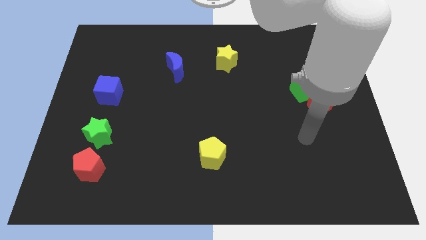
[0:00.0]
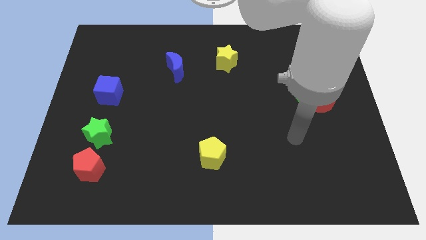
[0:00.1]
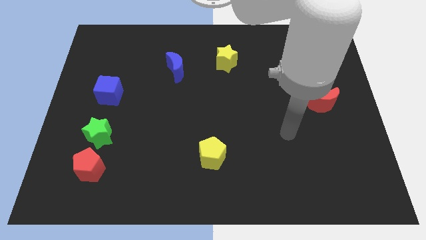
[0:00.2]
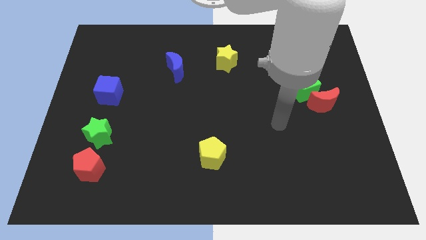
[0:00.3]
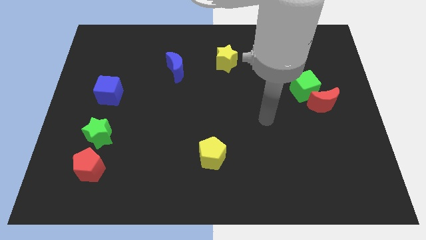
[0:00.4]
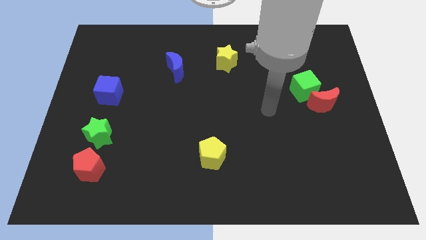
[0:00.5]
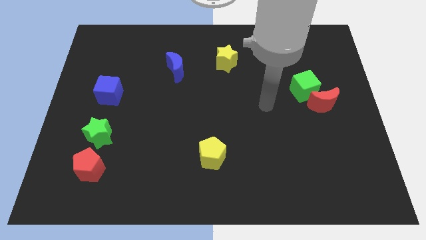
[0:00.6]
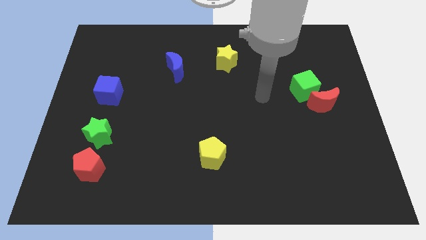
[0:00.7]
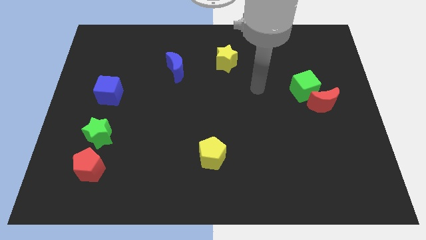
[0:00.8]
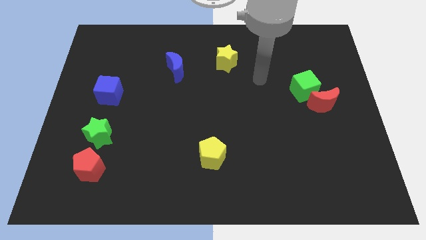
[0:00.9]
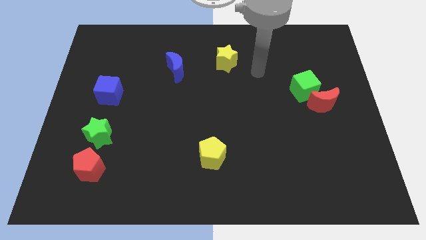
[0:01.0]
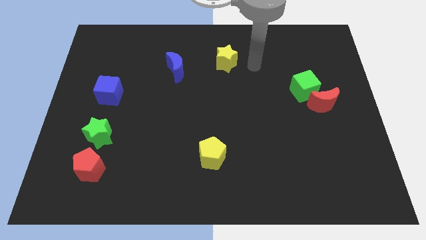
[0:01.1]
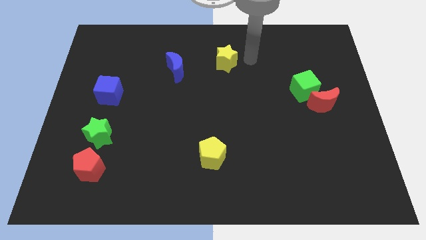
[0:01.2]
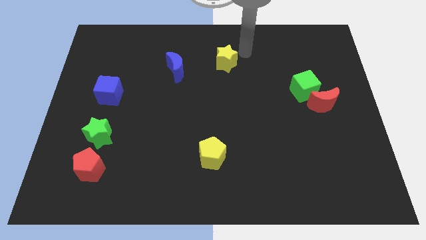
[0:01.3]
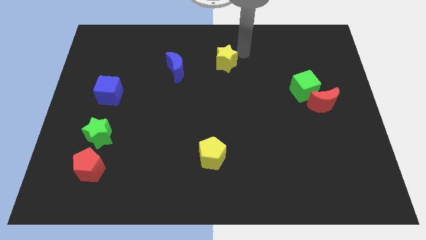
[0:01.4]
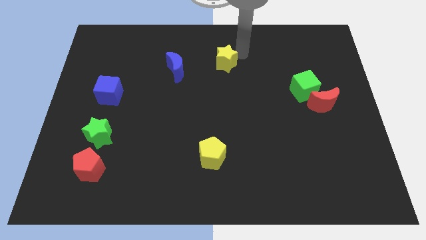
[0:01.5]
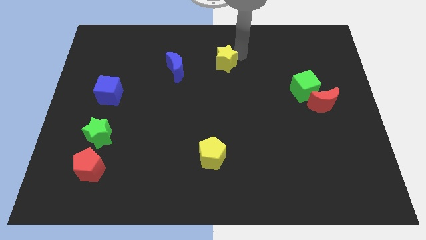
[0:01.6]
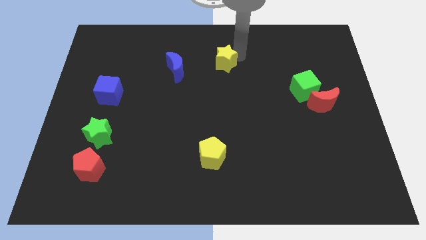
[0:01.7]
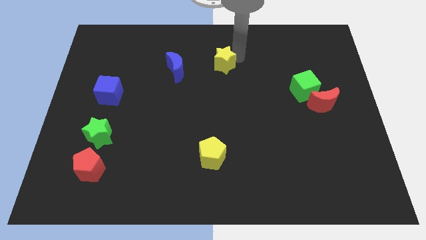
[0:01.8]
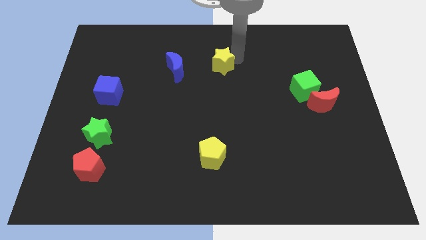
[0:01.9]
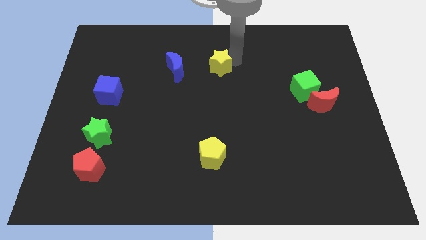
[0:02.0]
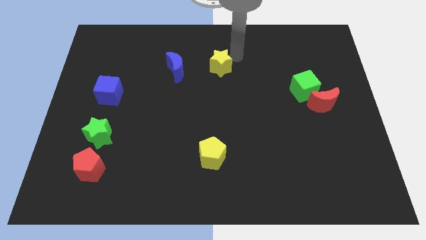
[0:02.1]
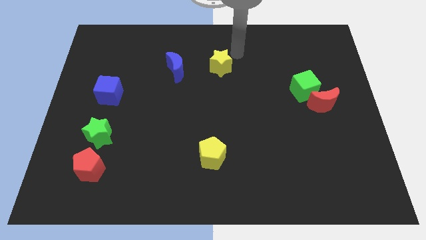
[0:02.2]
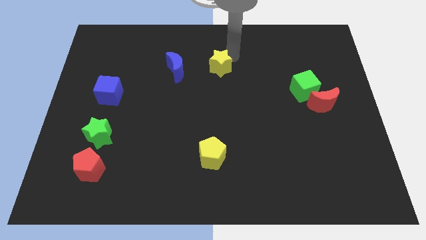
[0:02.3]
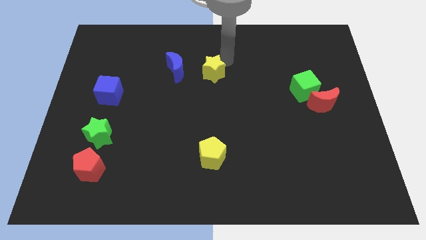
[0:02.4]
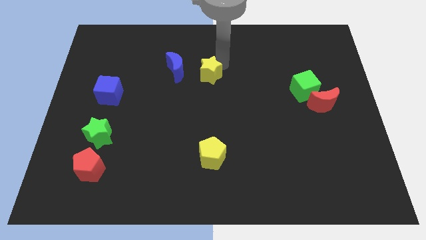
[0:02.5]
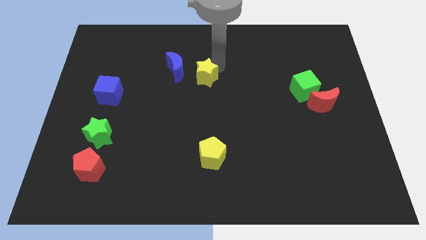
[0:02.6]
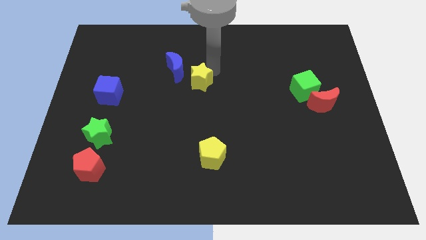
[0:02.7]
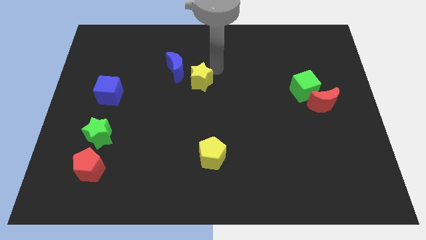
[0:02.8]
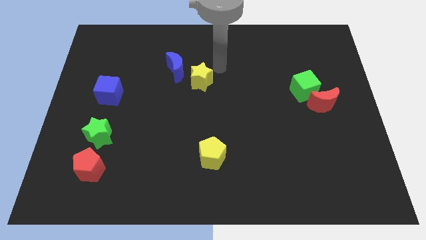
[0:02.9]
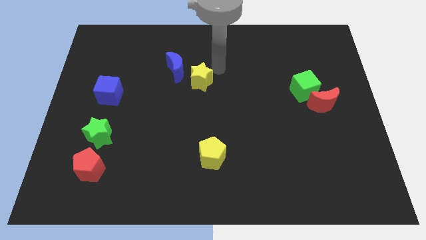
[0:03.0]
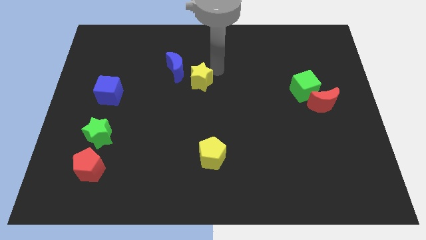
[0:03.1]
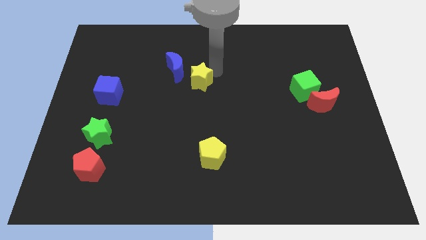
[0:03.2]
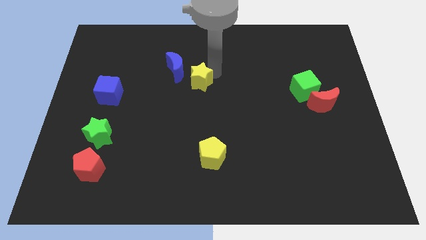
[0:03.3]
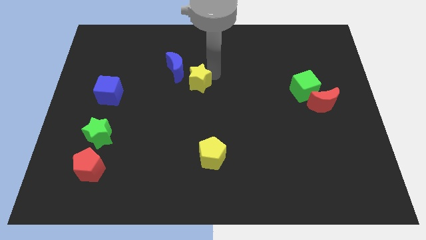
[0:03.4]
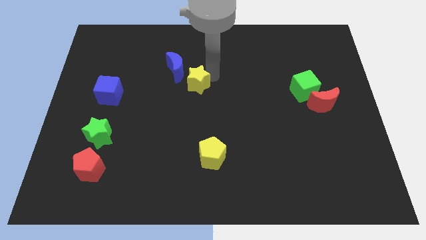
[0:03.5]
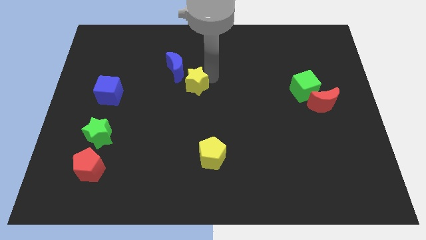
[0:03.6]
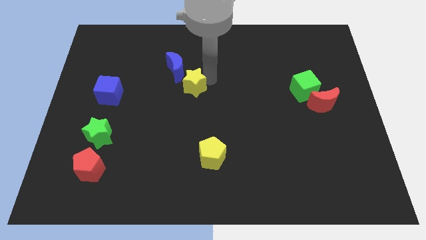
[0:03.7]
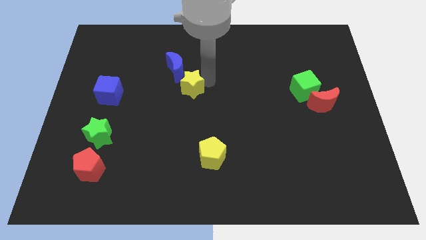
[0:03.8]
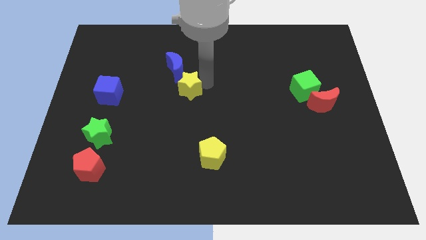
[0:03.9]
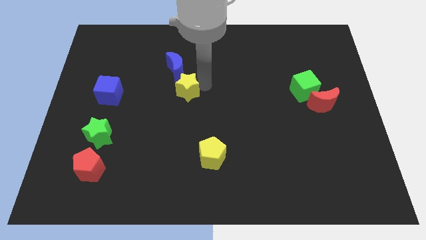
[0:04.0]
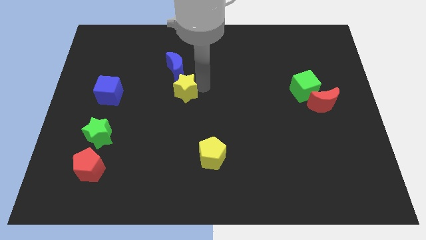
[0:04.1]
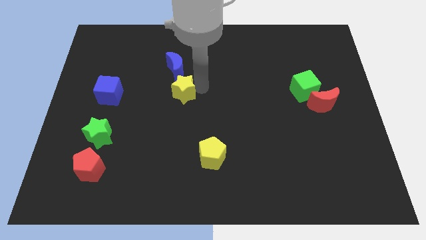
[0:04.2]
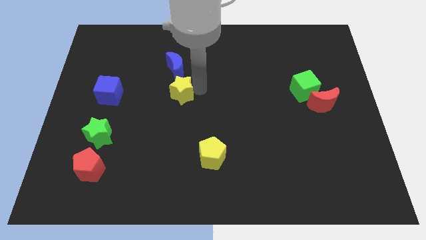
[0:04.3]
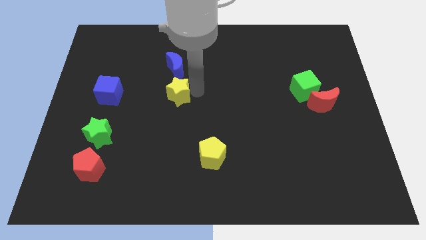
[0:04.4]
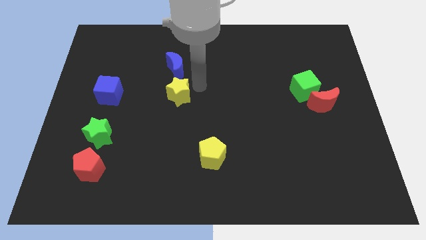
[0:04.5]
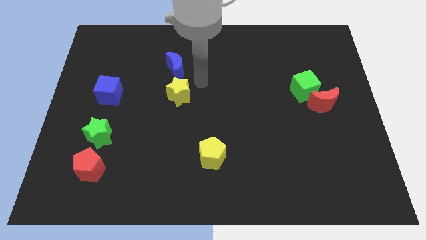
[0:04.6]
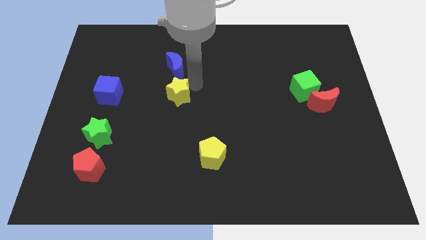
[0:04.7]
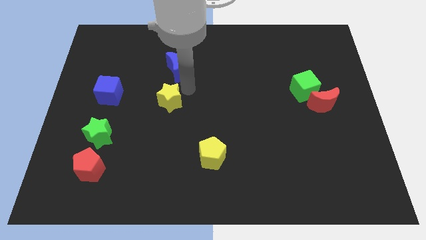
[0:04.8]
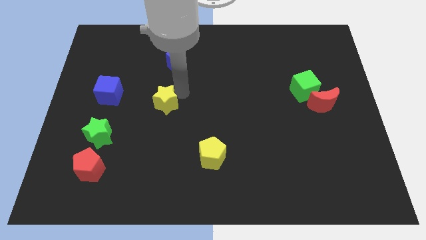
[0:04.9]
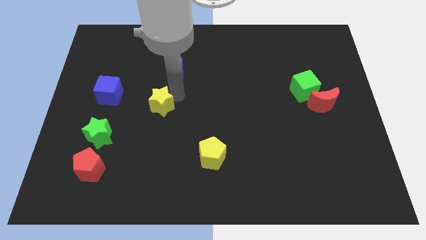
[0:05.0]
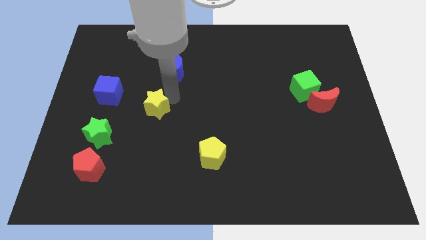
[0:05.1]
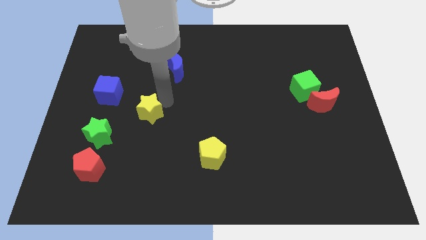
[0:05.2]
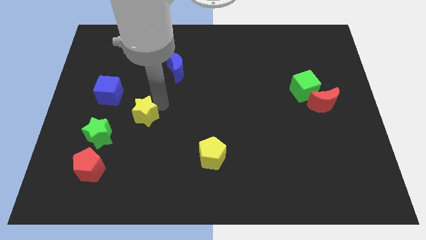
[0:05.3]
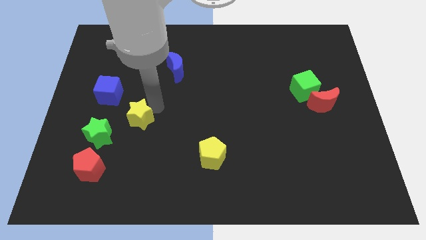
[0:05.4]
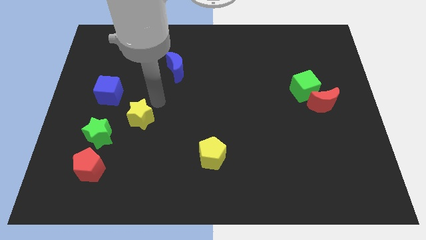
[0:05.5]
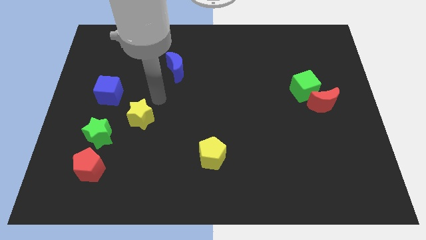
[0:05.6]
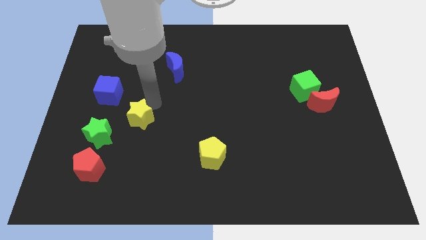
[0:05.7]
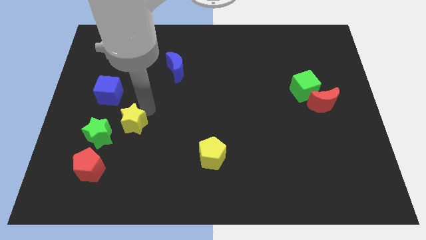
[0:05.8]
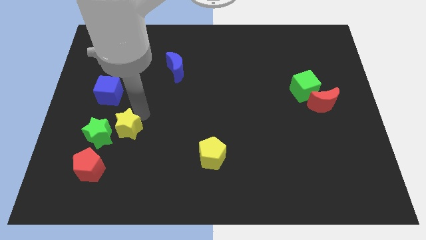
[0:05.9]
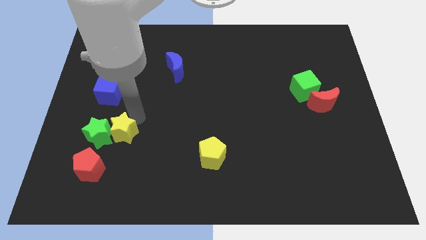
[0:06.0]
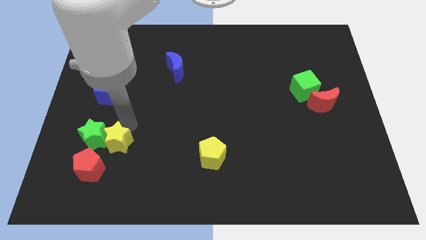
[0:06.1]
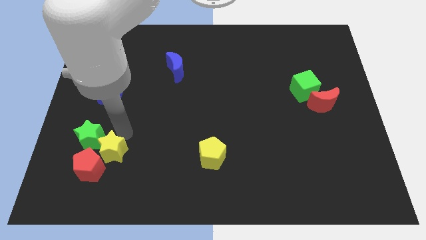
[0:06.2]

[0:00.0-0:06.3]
put the yellow star next to the red pentagon
